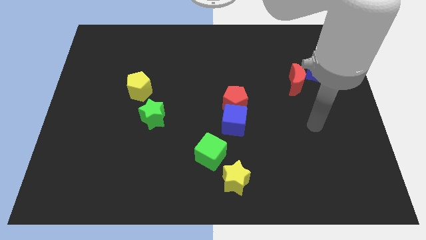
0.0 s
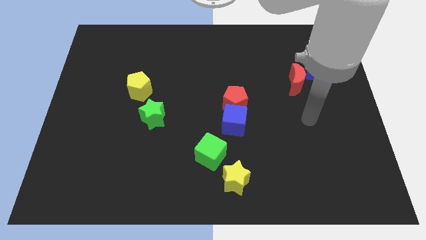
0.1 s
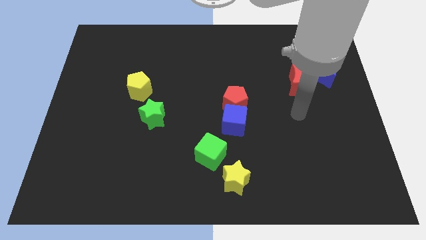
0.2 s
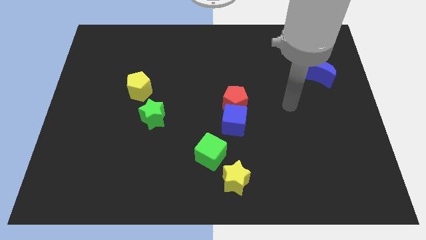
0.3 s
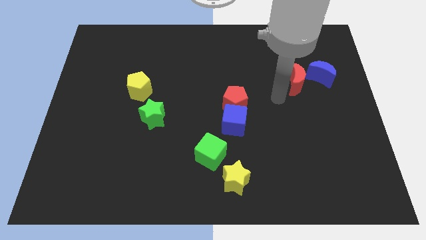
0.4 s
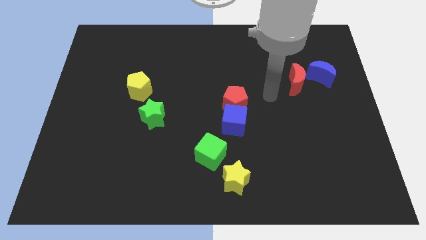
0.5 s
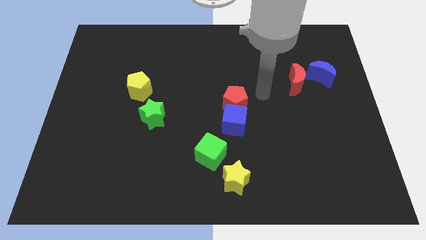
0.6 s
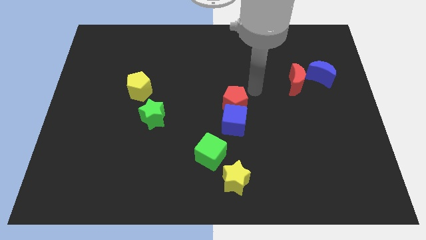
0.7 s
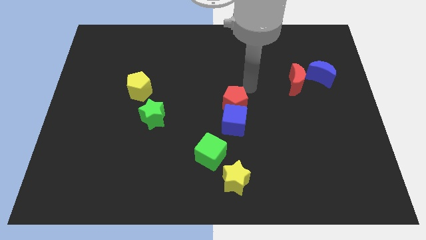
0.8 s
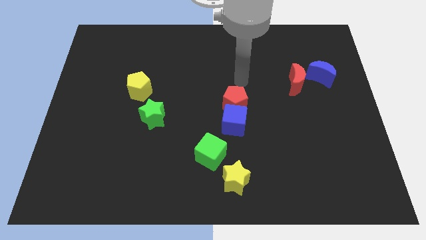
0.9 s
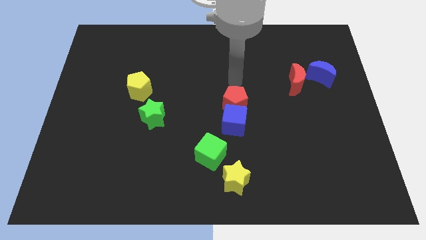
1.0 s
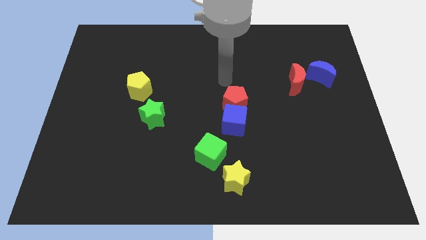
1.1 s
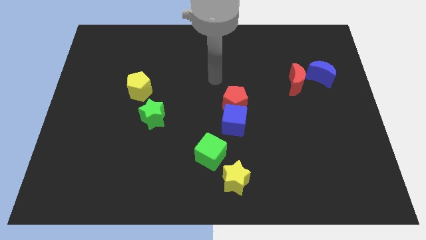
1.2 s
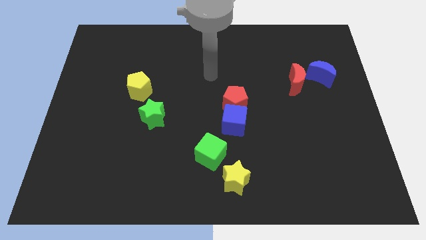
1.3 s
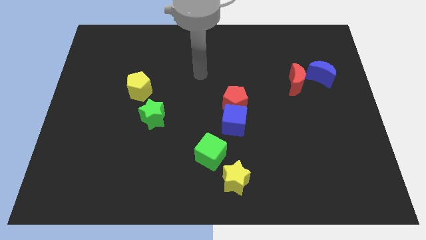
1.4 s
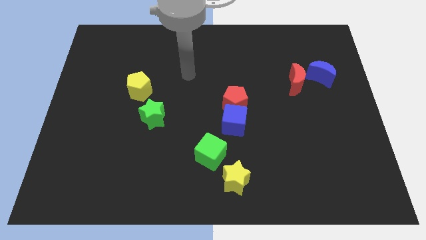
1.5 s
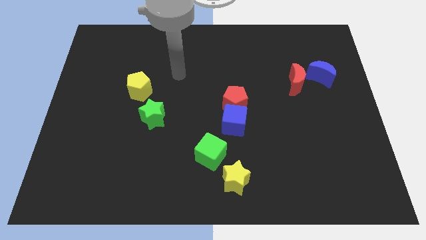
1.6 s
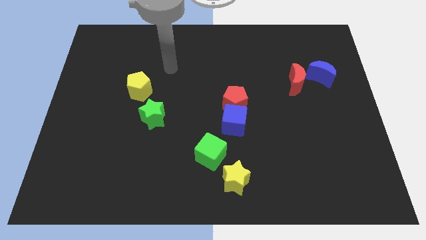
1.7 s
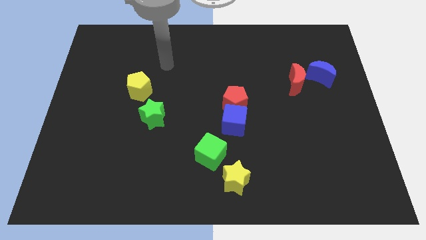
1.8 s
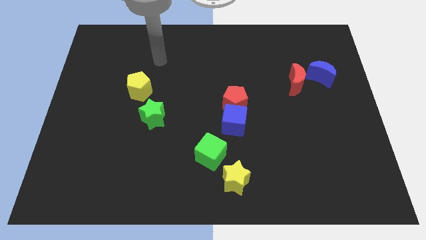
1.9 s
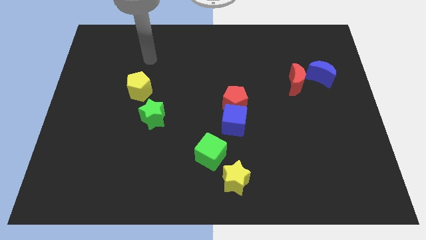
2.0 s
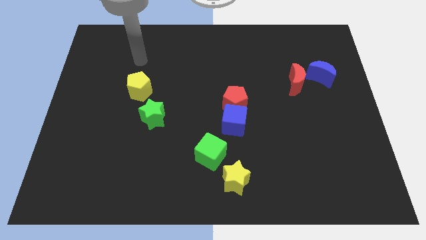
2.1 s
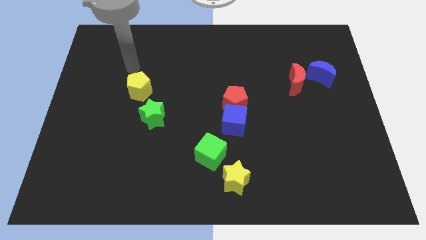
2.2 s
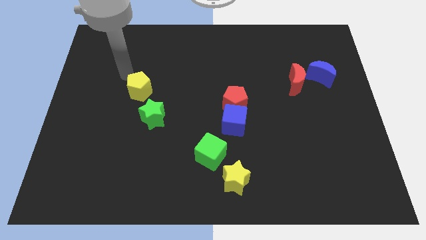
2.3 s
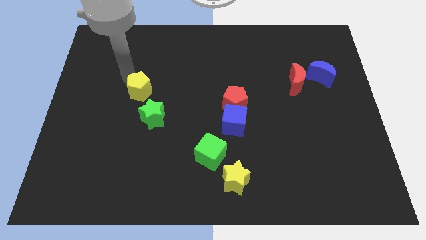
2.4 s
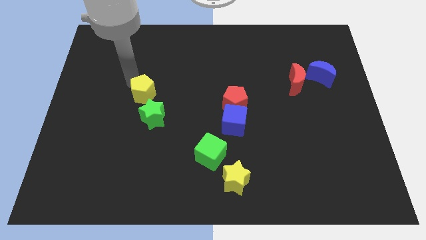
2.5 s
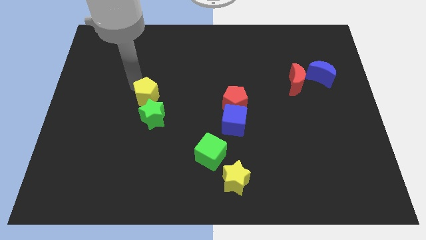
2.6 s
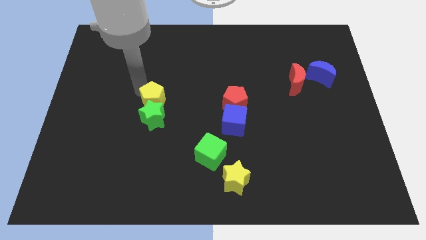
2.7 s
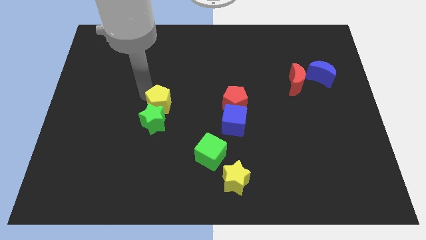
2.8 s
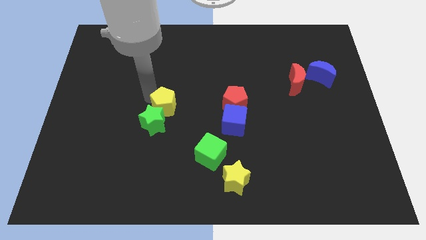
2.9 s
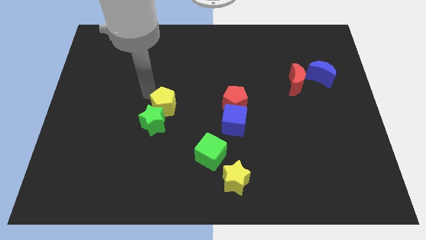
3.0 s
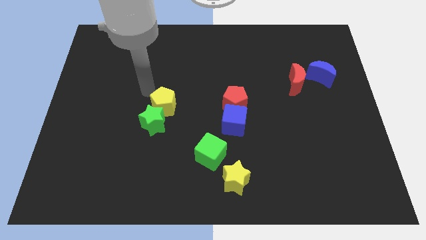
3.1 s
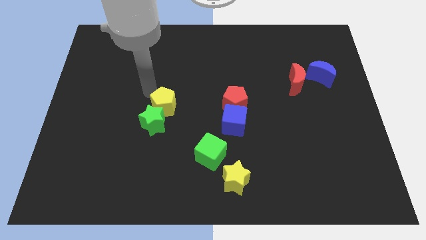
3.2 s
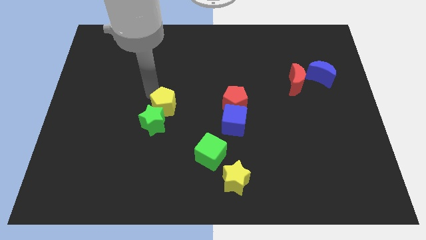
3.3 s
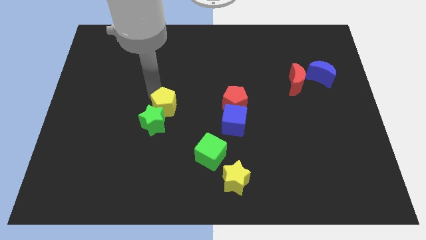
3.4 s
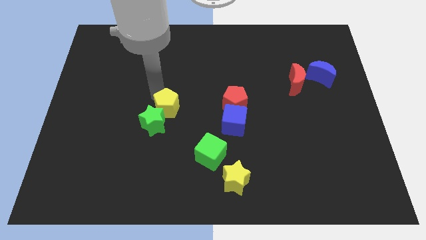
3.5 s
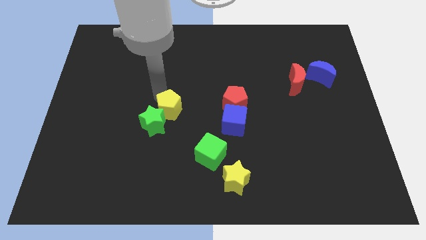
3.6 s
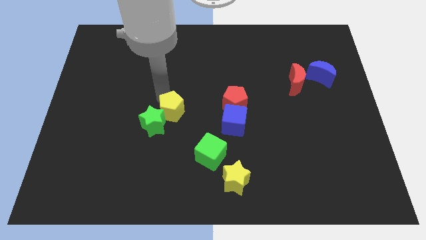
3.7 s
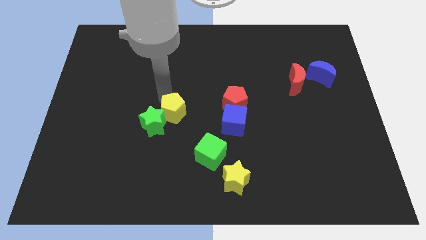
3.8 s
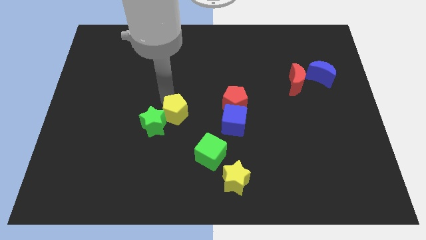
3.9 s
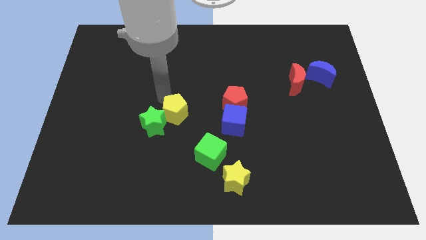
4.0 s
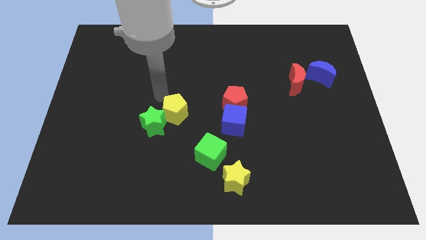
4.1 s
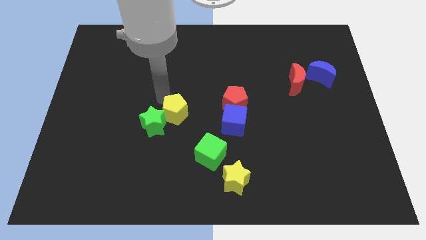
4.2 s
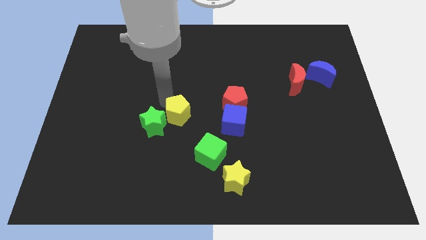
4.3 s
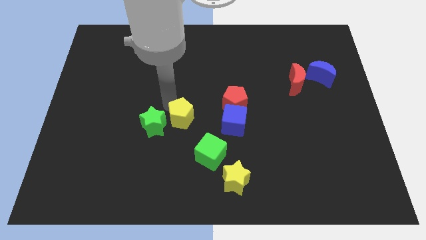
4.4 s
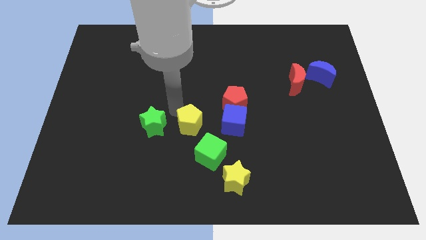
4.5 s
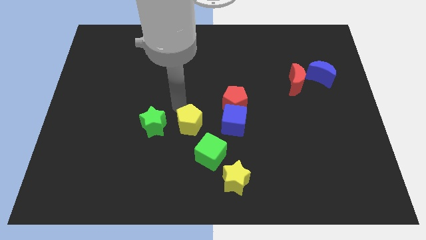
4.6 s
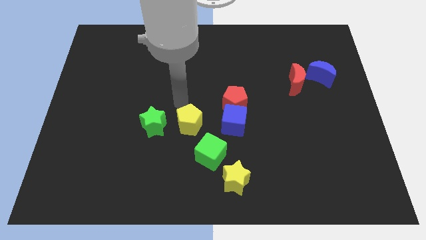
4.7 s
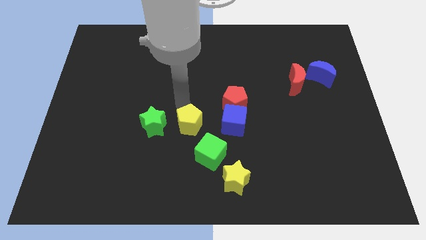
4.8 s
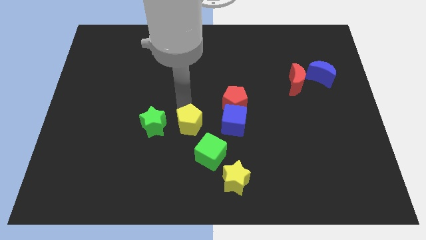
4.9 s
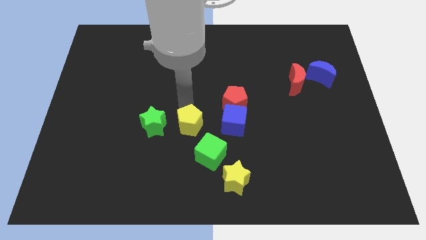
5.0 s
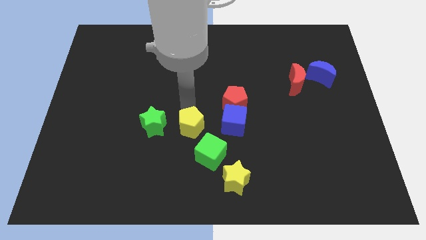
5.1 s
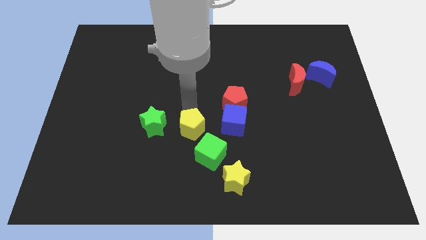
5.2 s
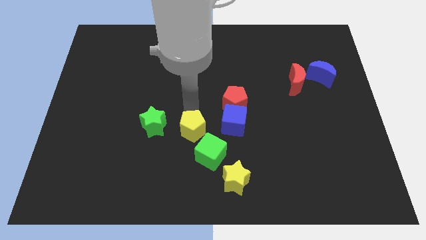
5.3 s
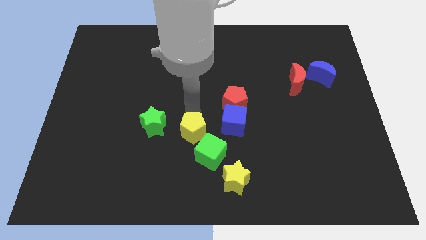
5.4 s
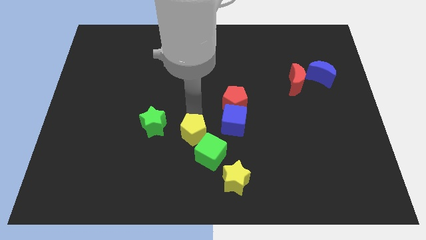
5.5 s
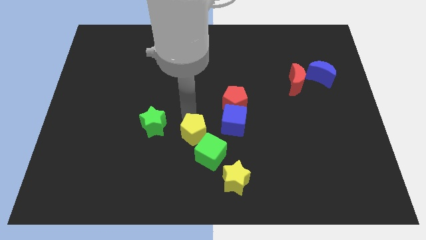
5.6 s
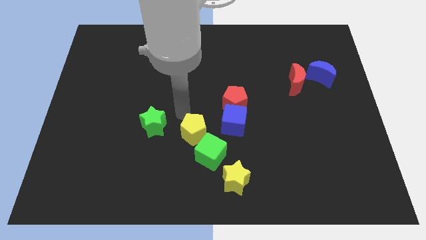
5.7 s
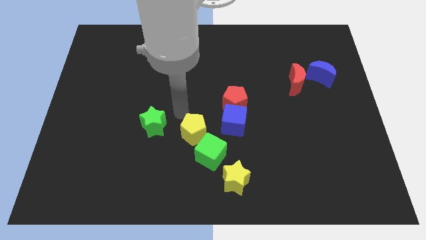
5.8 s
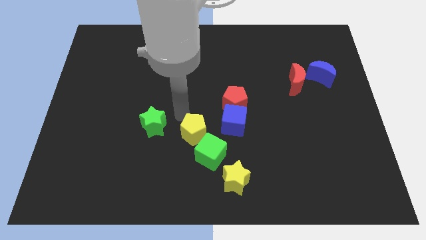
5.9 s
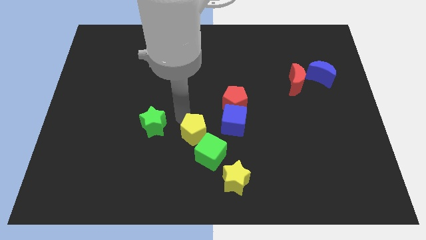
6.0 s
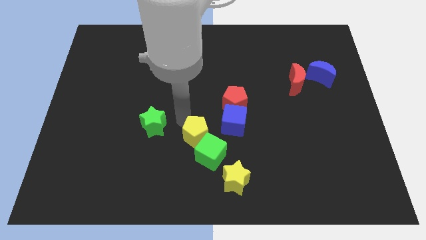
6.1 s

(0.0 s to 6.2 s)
slide the yellow pentagon next to the green cube

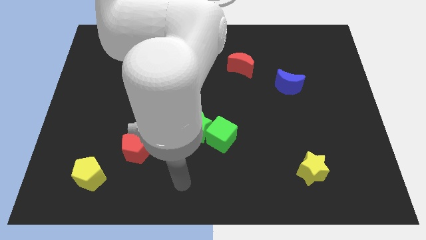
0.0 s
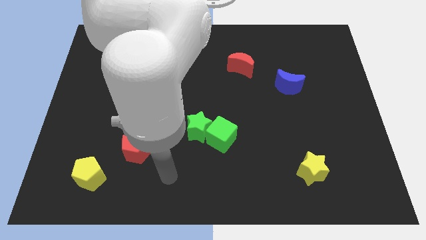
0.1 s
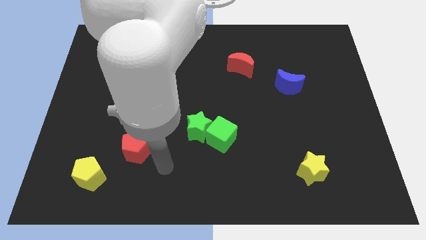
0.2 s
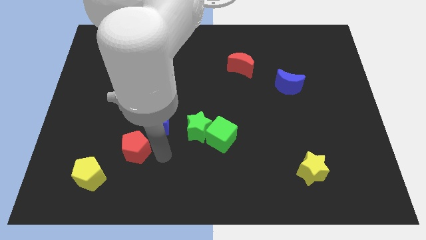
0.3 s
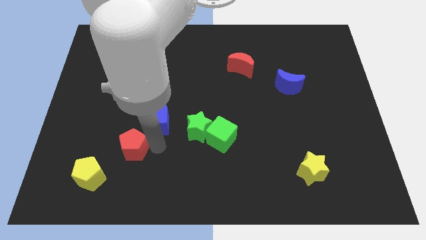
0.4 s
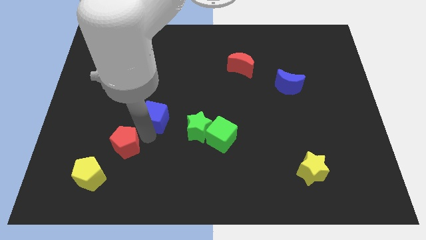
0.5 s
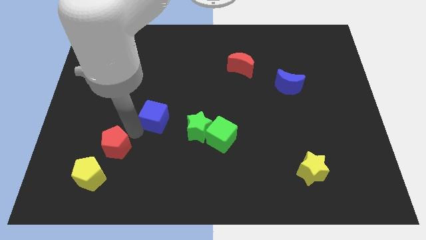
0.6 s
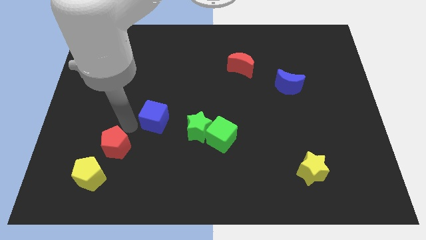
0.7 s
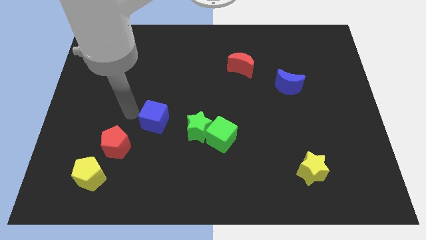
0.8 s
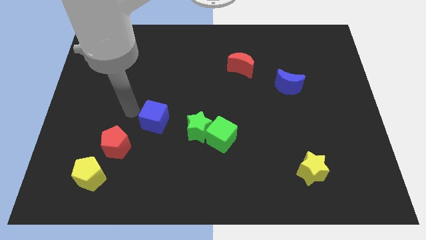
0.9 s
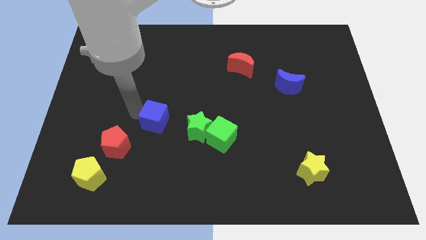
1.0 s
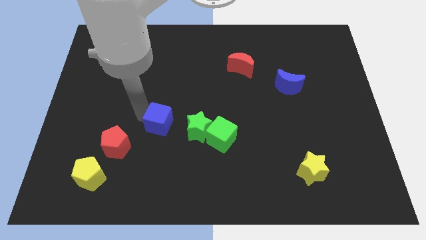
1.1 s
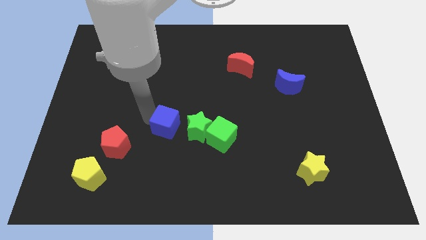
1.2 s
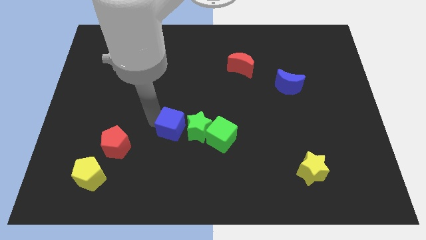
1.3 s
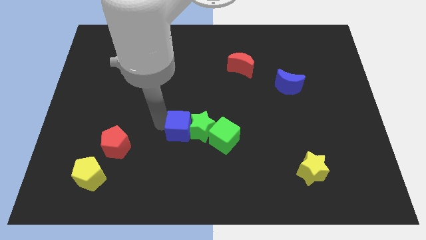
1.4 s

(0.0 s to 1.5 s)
put the blue cube to the green star
